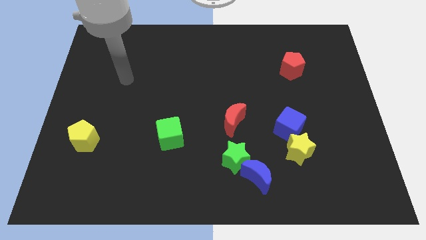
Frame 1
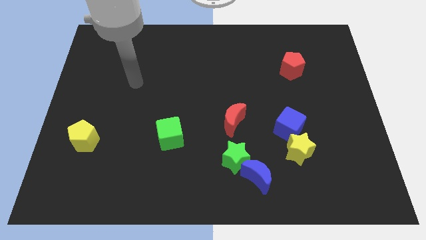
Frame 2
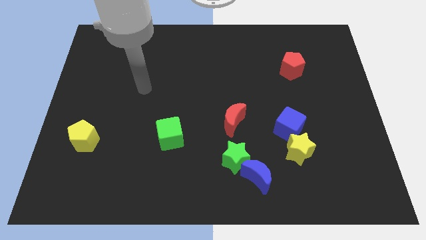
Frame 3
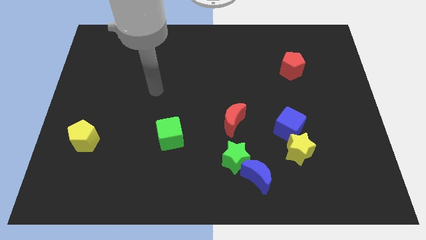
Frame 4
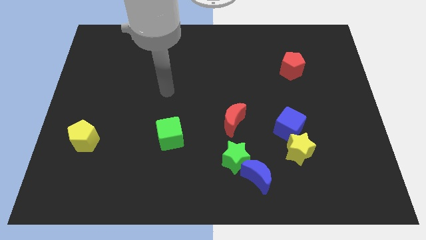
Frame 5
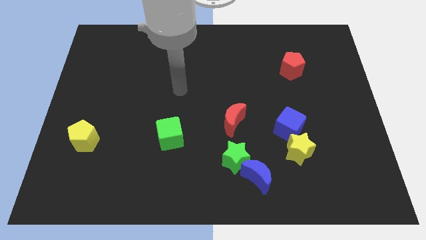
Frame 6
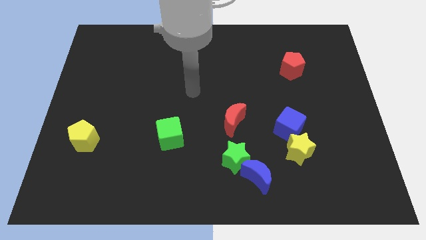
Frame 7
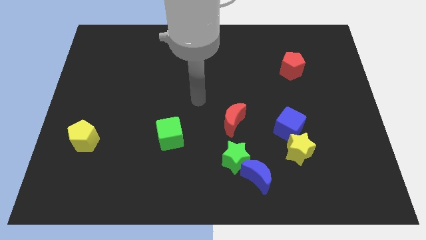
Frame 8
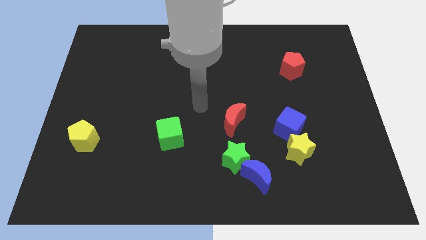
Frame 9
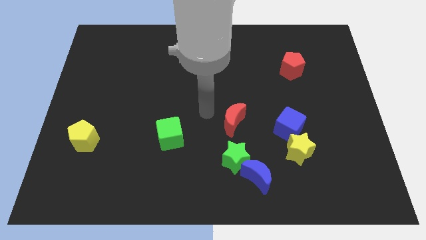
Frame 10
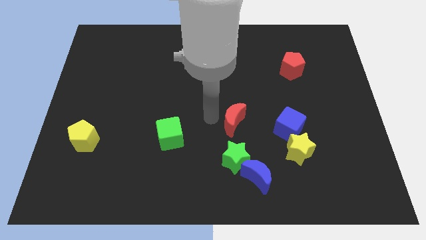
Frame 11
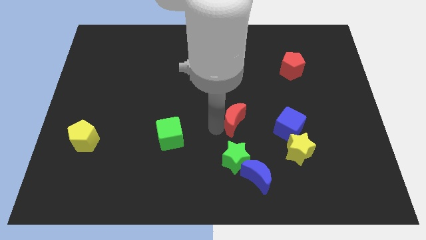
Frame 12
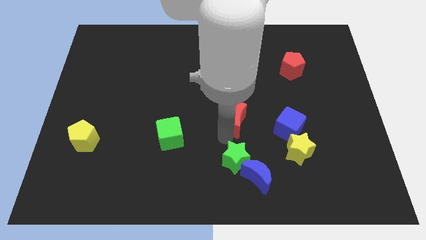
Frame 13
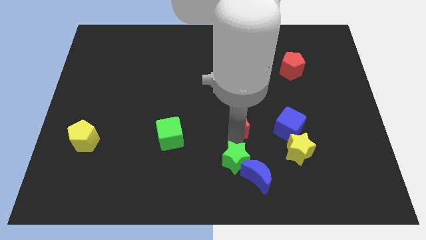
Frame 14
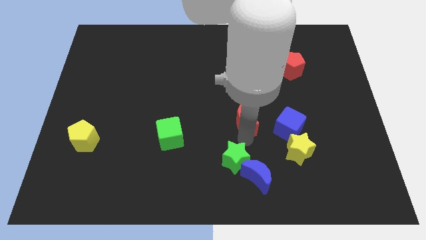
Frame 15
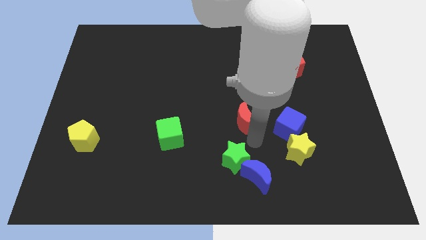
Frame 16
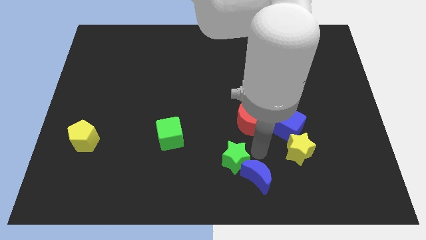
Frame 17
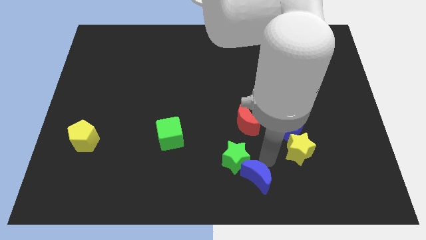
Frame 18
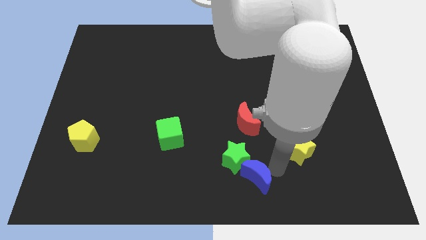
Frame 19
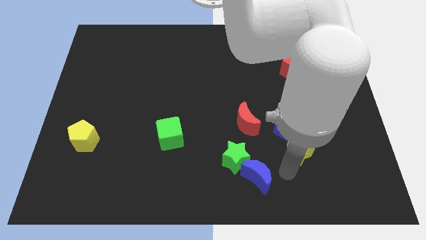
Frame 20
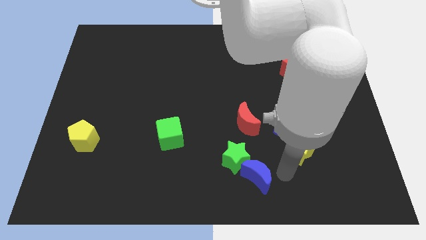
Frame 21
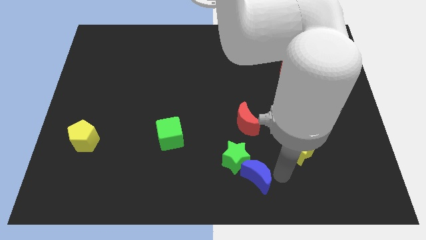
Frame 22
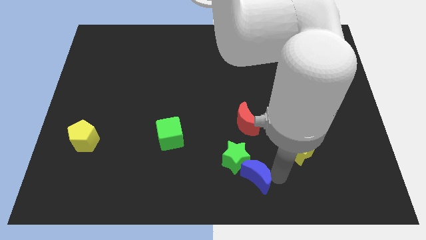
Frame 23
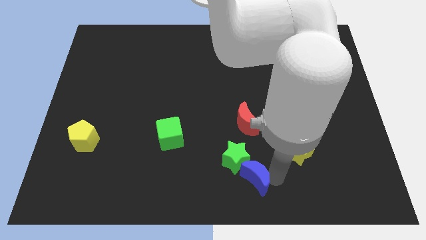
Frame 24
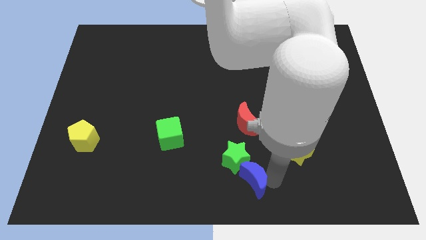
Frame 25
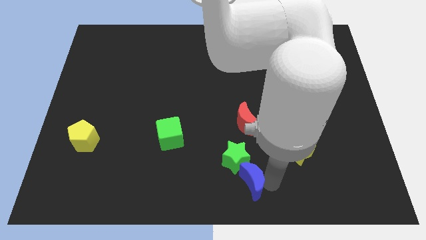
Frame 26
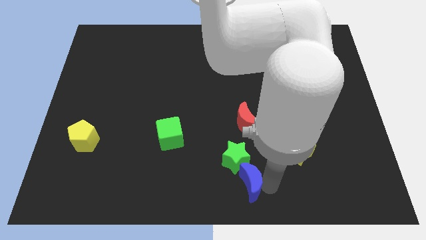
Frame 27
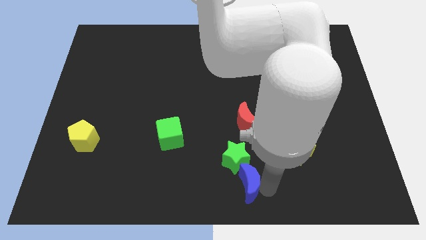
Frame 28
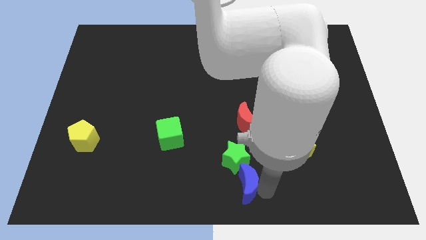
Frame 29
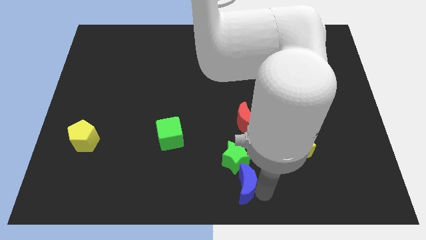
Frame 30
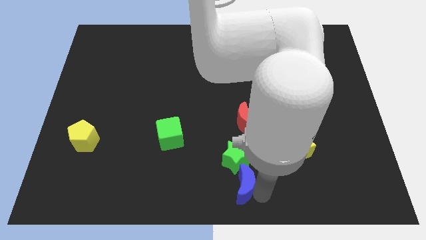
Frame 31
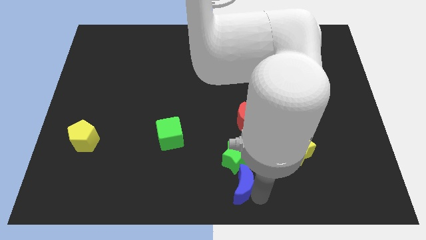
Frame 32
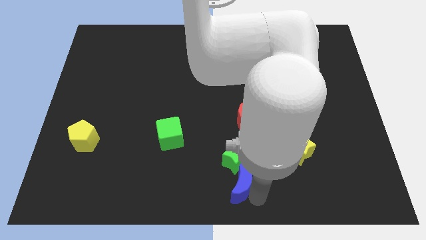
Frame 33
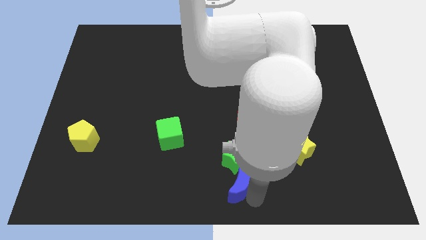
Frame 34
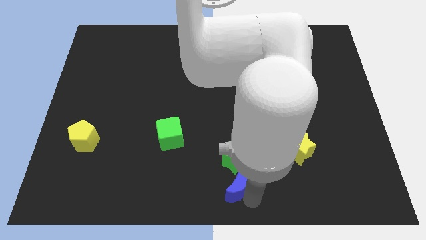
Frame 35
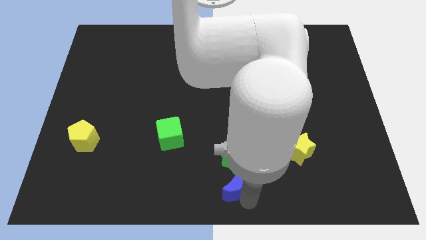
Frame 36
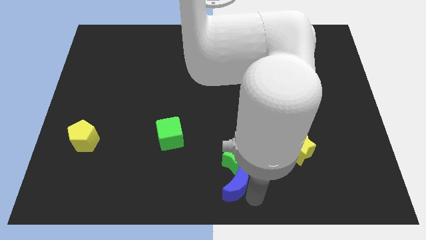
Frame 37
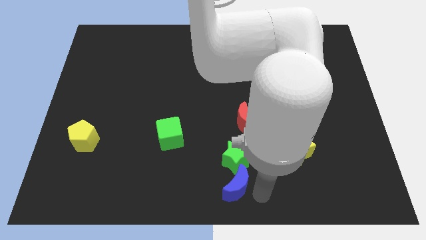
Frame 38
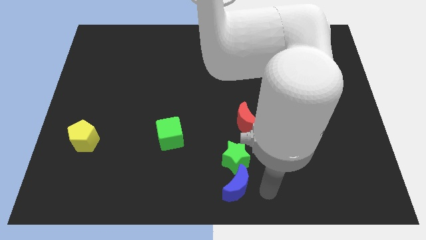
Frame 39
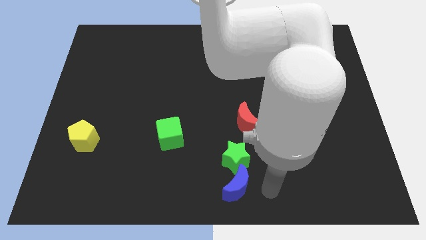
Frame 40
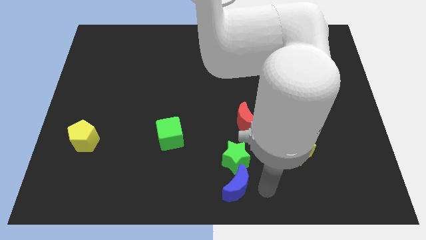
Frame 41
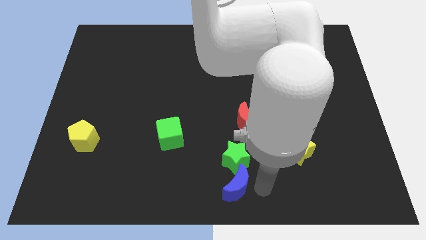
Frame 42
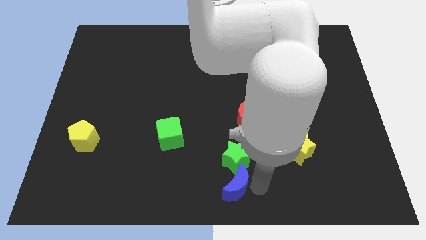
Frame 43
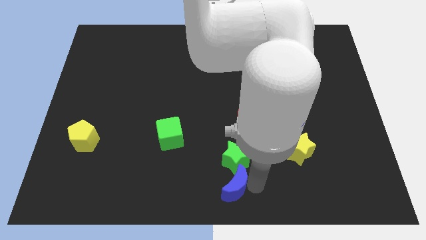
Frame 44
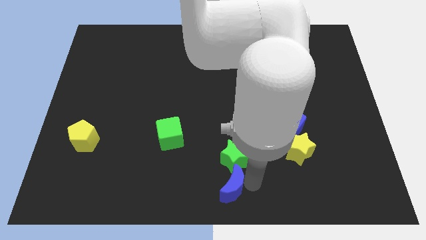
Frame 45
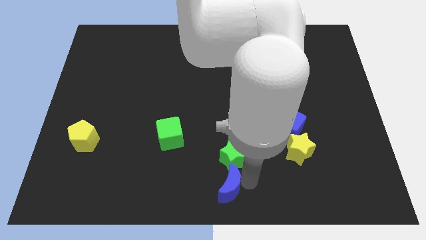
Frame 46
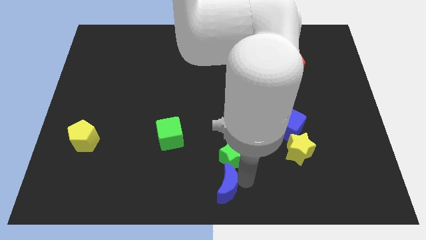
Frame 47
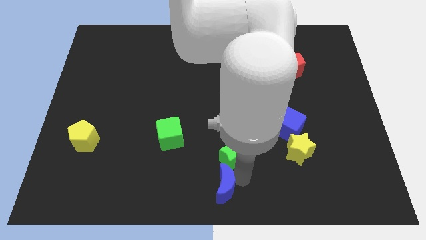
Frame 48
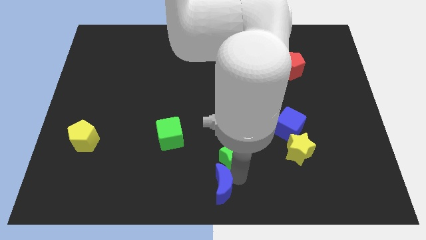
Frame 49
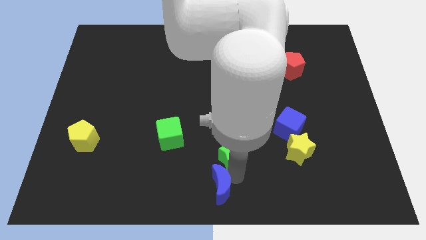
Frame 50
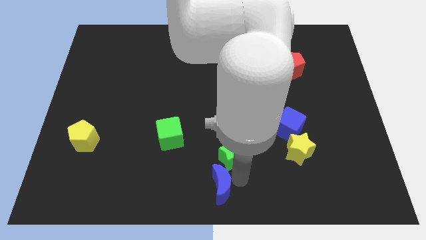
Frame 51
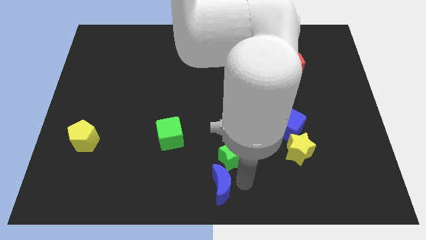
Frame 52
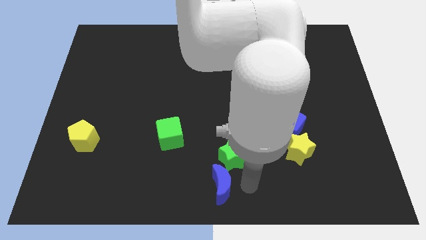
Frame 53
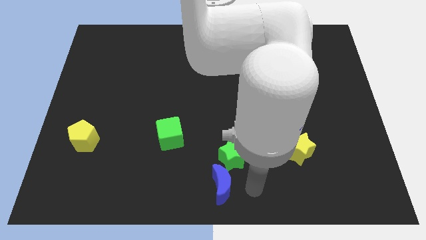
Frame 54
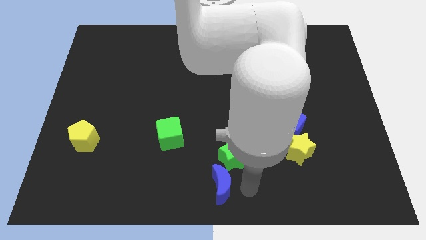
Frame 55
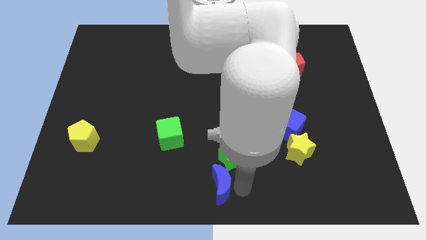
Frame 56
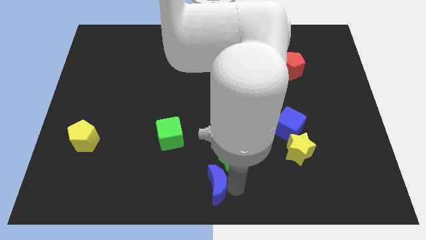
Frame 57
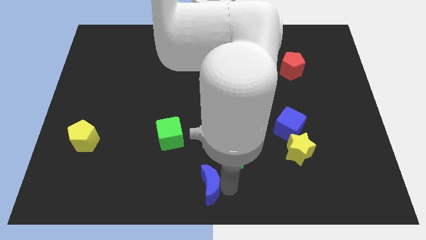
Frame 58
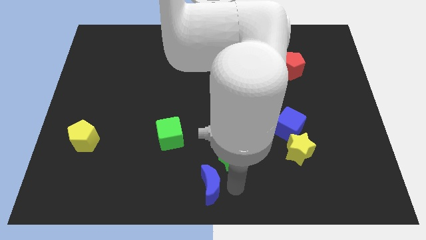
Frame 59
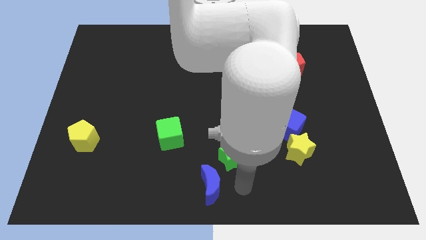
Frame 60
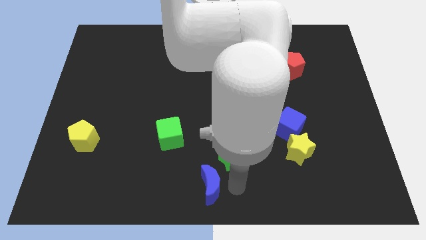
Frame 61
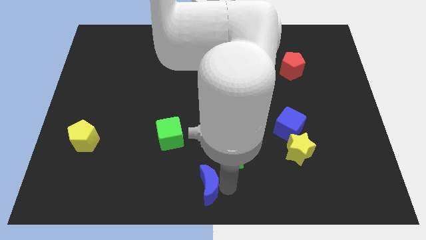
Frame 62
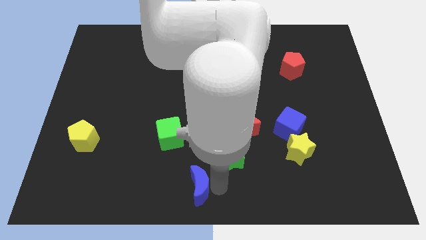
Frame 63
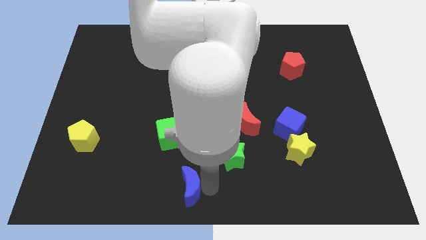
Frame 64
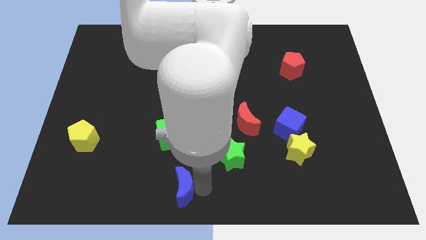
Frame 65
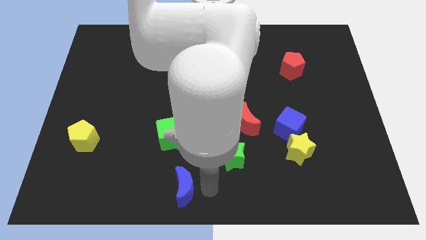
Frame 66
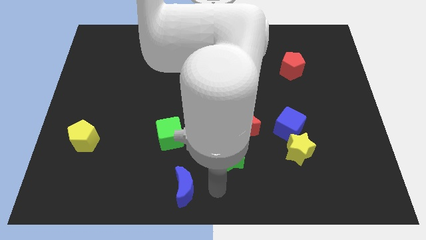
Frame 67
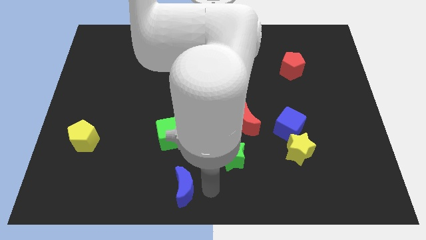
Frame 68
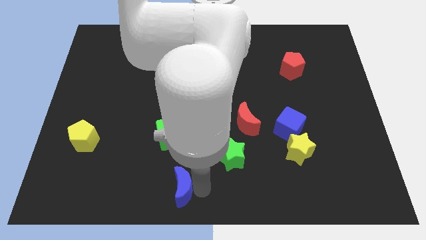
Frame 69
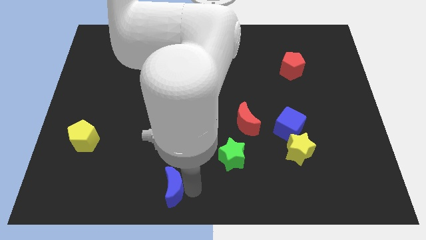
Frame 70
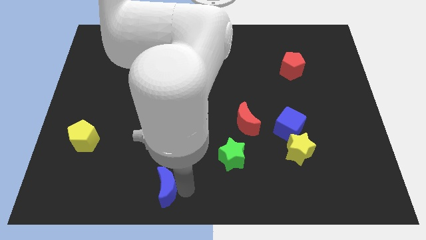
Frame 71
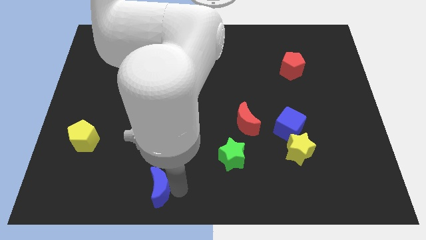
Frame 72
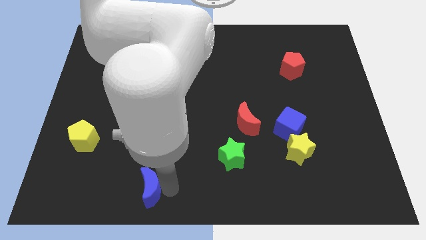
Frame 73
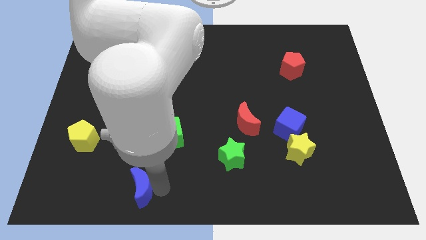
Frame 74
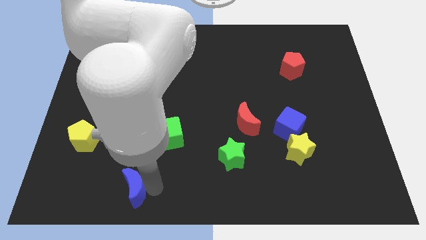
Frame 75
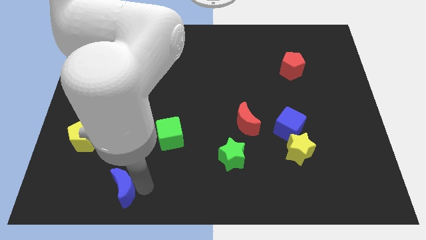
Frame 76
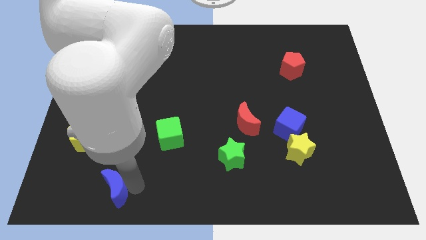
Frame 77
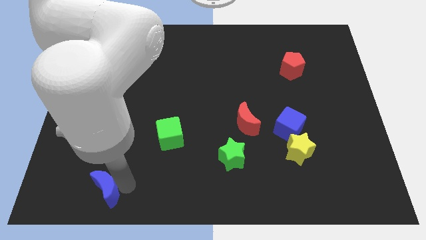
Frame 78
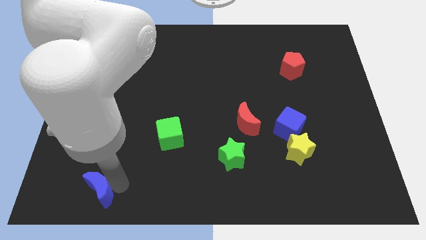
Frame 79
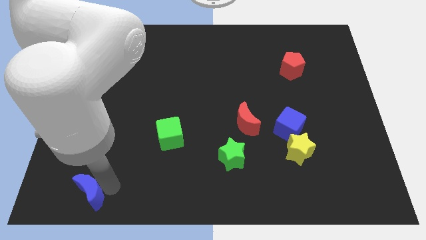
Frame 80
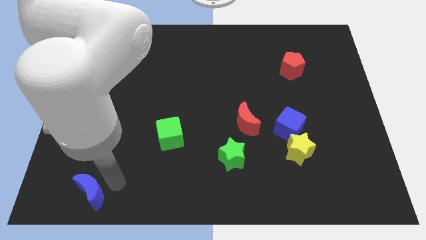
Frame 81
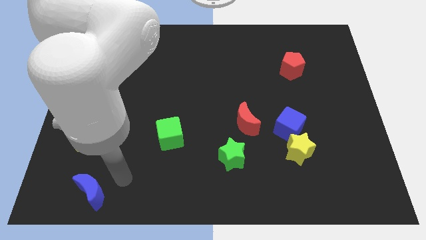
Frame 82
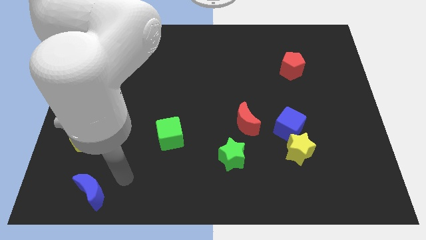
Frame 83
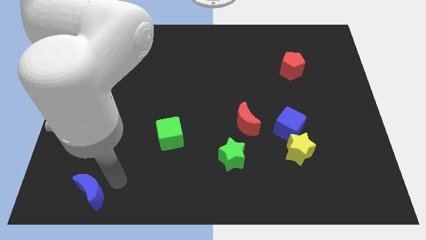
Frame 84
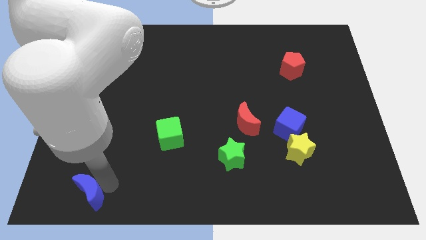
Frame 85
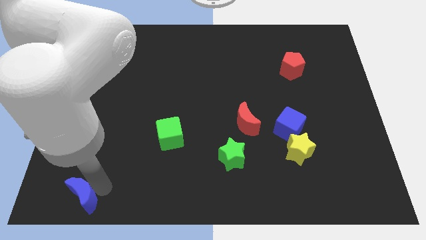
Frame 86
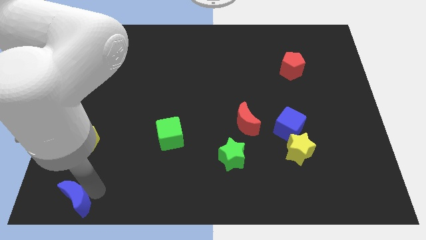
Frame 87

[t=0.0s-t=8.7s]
slide the blue moon to the bottom left corner
